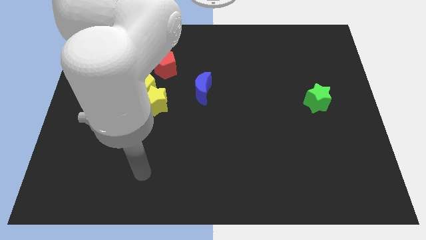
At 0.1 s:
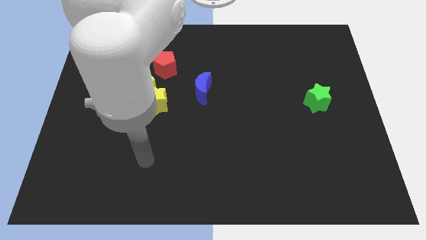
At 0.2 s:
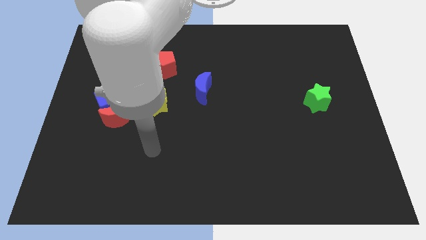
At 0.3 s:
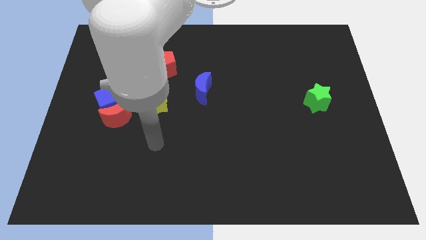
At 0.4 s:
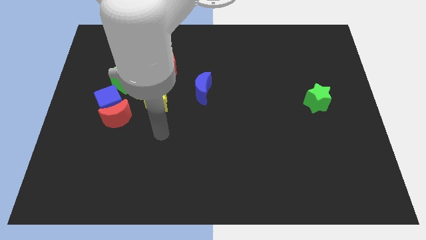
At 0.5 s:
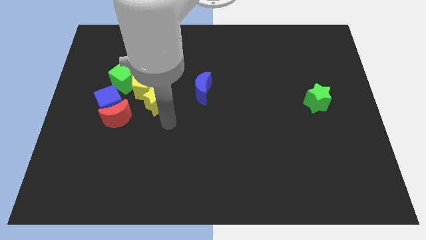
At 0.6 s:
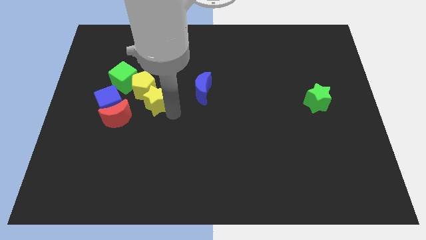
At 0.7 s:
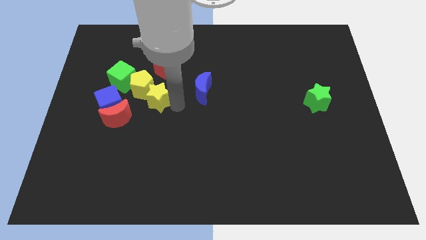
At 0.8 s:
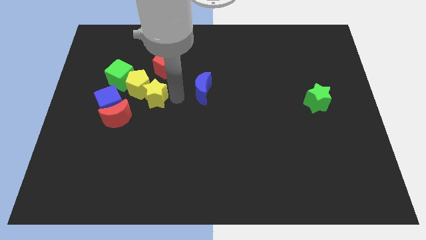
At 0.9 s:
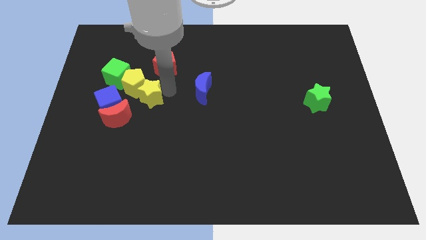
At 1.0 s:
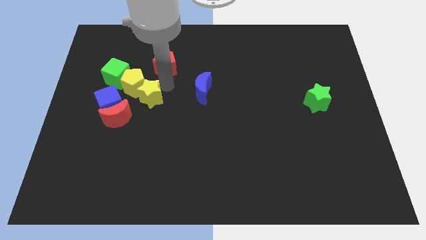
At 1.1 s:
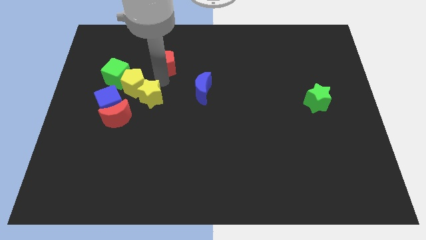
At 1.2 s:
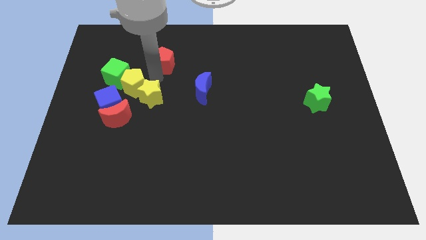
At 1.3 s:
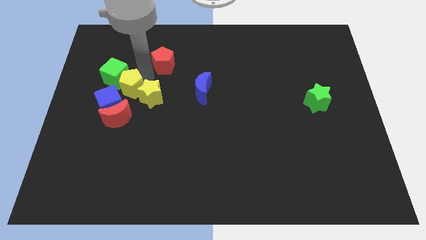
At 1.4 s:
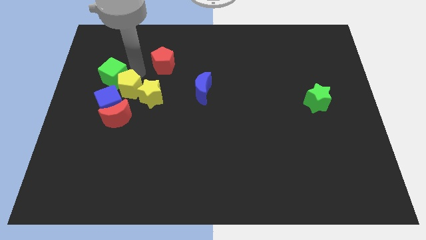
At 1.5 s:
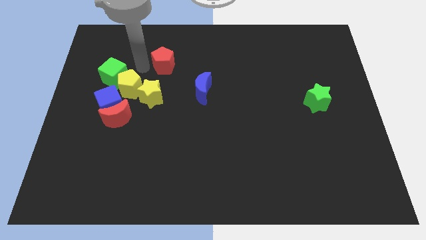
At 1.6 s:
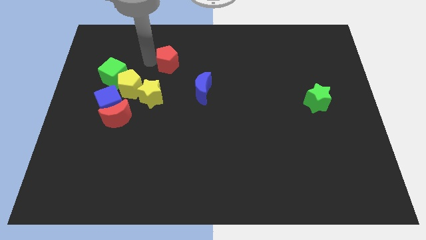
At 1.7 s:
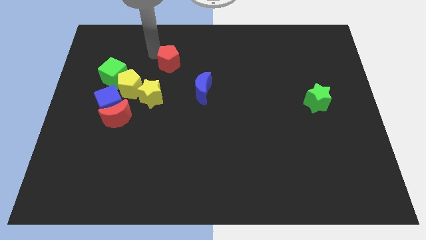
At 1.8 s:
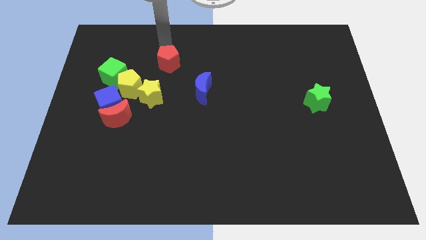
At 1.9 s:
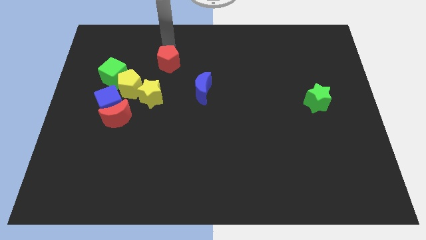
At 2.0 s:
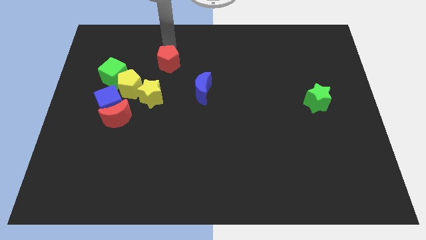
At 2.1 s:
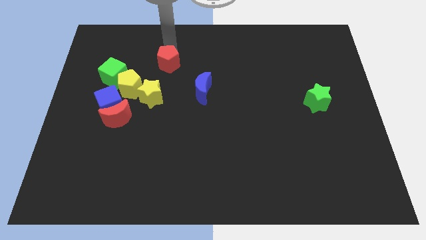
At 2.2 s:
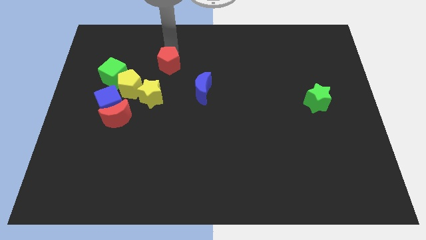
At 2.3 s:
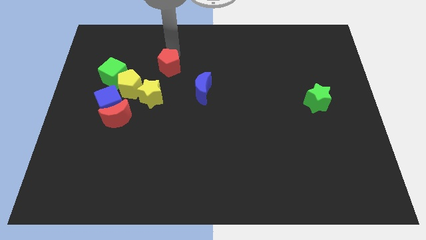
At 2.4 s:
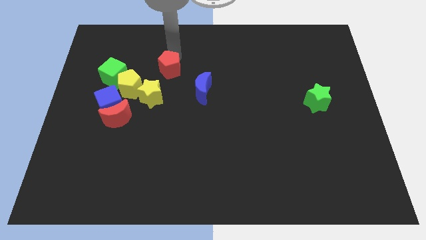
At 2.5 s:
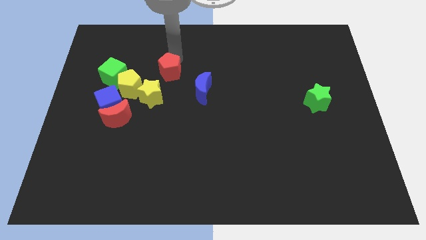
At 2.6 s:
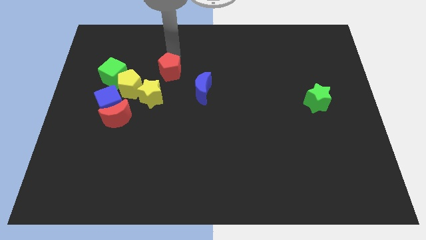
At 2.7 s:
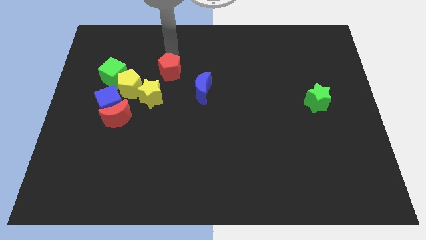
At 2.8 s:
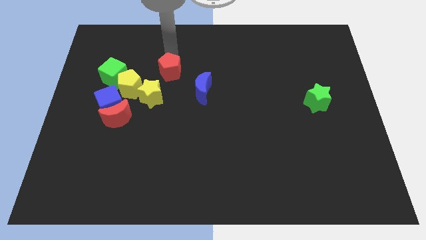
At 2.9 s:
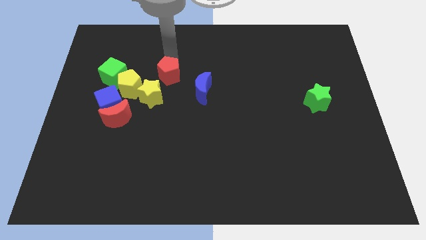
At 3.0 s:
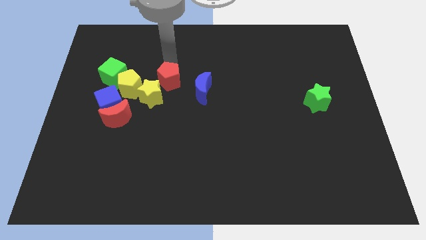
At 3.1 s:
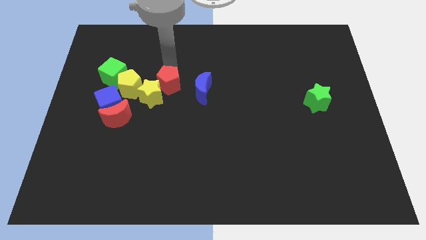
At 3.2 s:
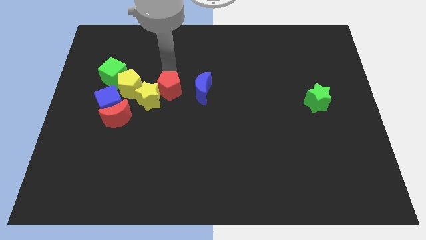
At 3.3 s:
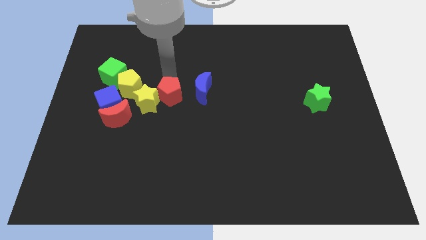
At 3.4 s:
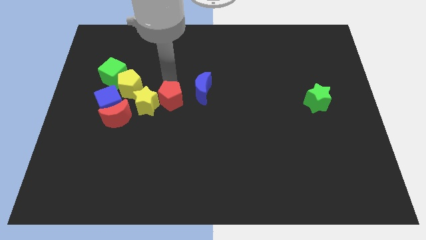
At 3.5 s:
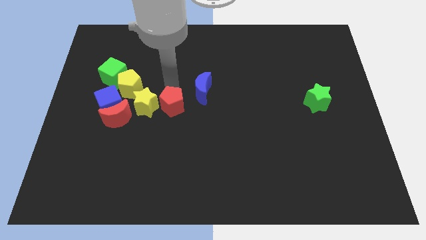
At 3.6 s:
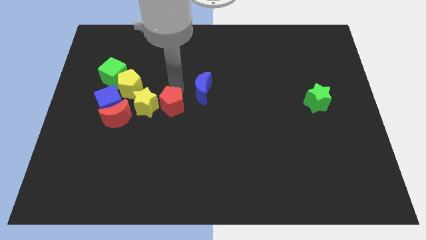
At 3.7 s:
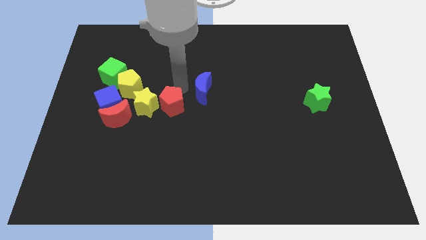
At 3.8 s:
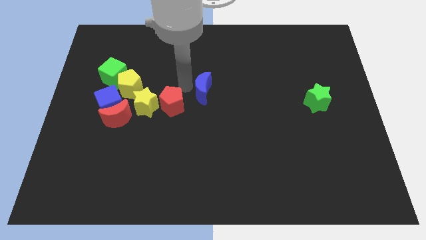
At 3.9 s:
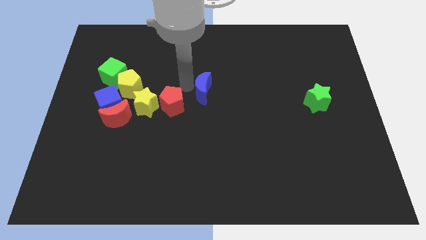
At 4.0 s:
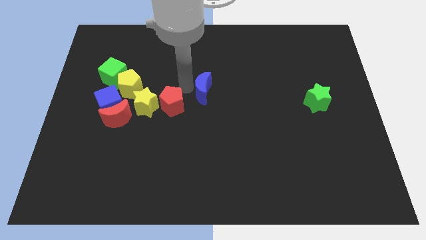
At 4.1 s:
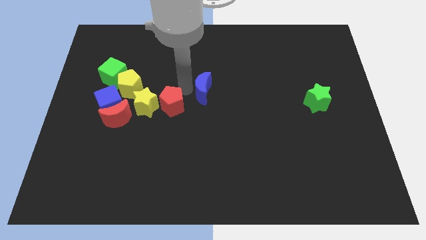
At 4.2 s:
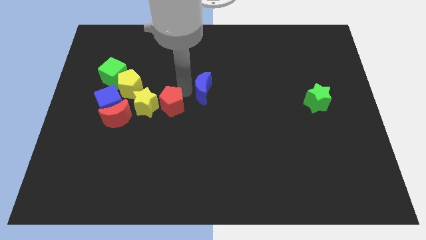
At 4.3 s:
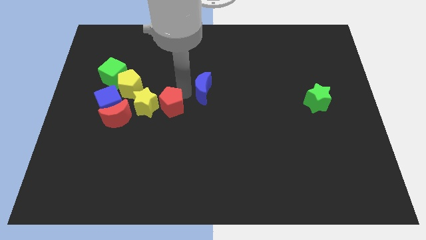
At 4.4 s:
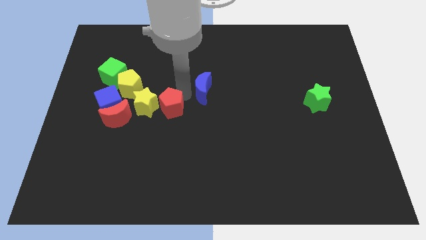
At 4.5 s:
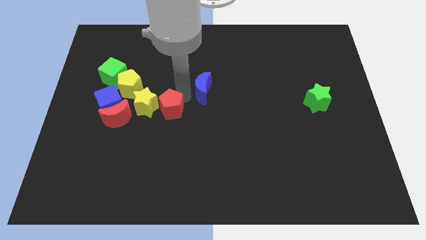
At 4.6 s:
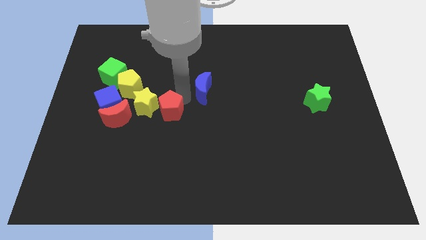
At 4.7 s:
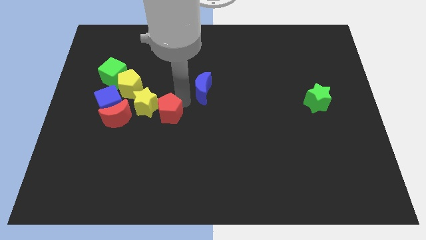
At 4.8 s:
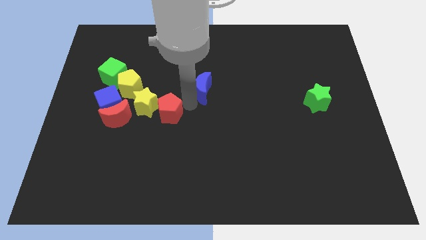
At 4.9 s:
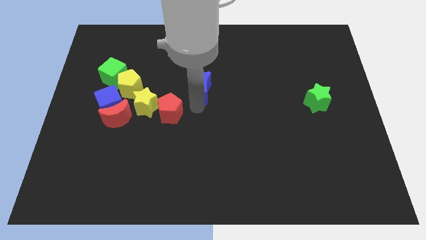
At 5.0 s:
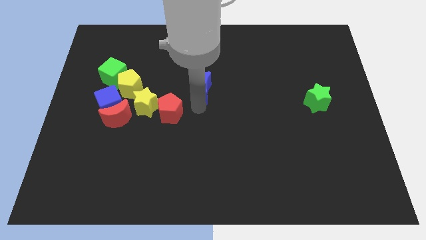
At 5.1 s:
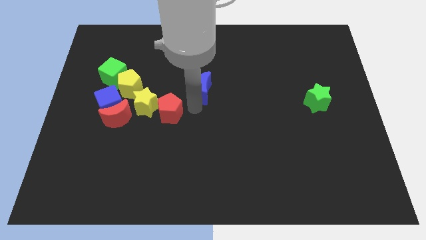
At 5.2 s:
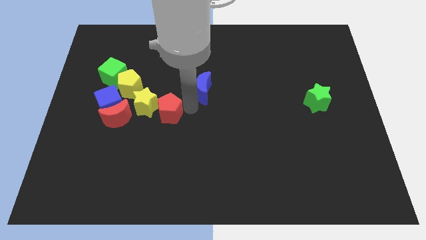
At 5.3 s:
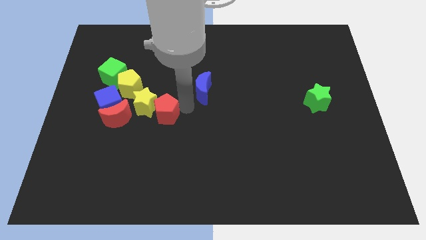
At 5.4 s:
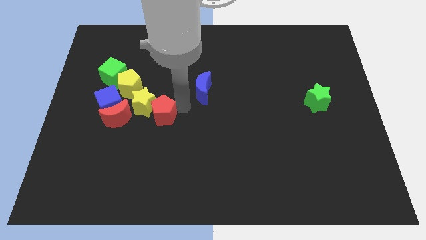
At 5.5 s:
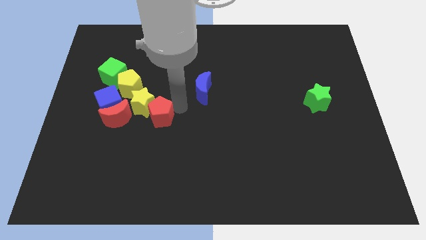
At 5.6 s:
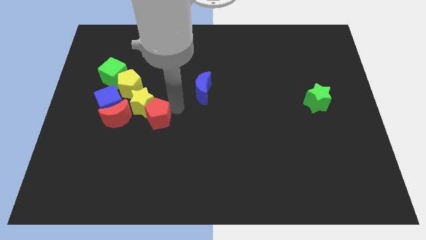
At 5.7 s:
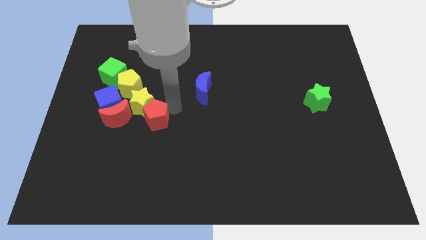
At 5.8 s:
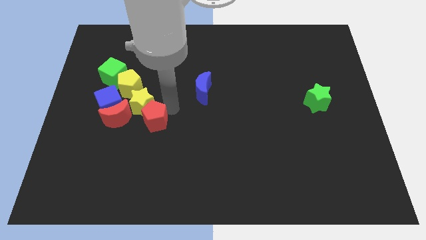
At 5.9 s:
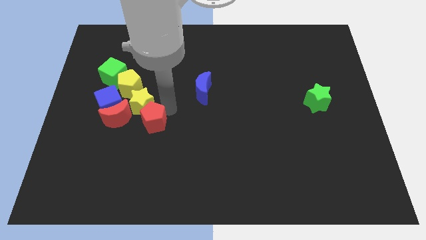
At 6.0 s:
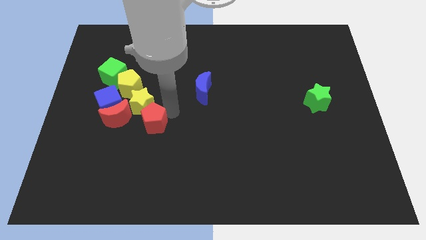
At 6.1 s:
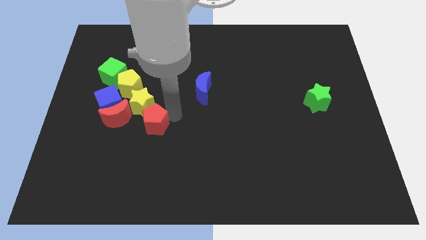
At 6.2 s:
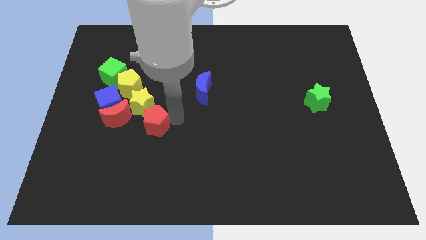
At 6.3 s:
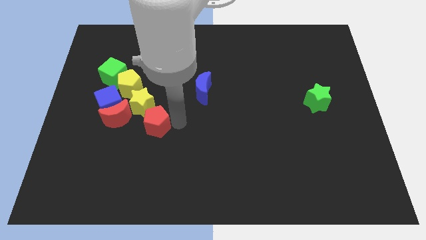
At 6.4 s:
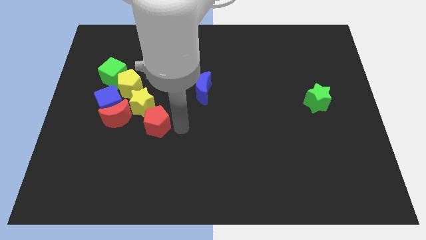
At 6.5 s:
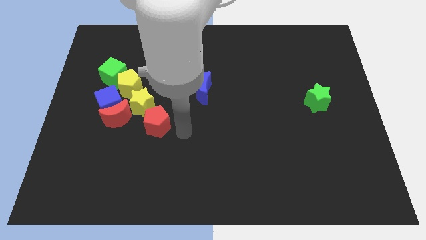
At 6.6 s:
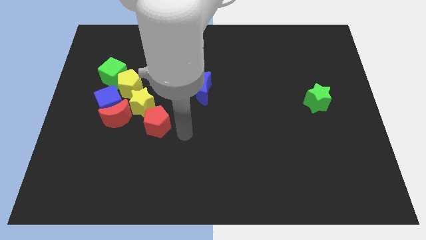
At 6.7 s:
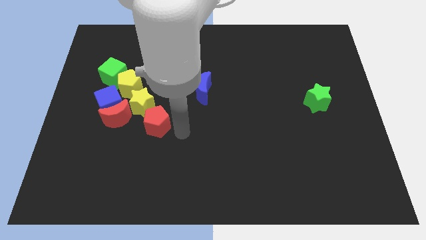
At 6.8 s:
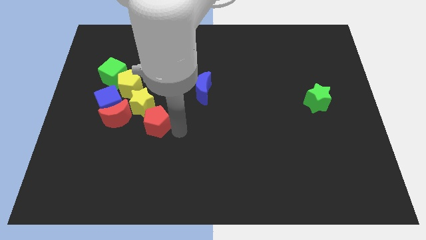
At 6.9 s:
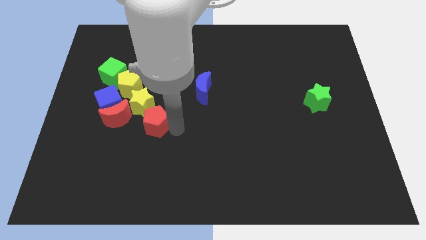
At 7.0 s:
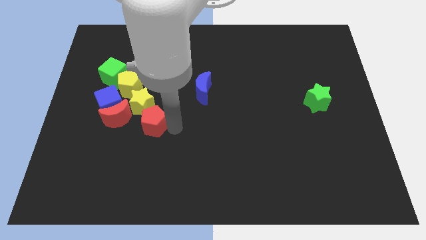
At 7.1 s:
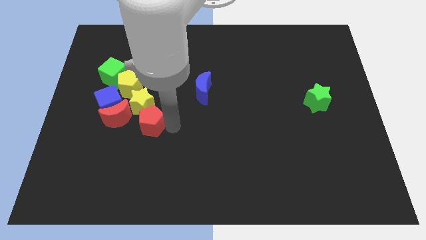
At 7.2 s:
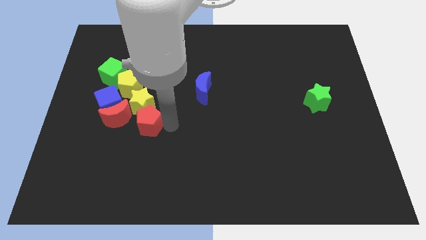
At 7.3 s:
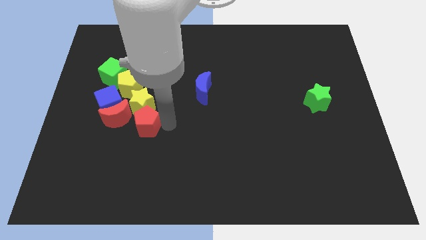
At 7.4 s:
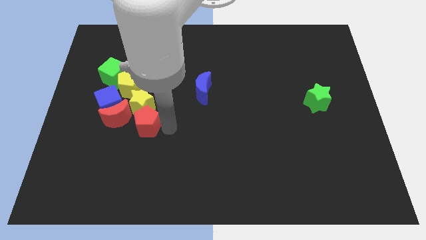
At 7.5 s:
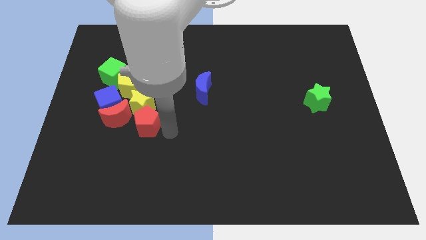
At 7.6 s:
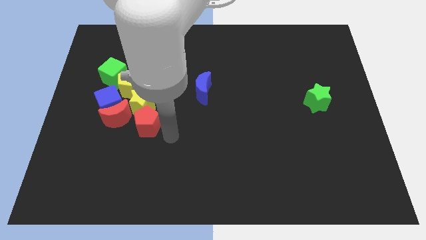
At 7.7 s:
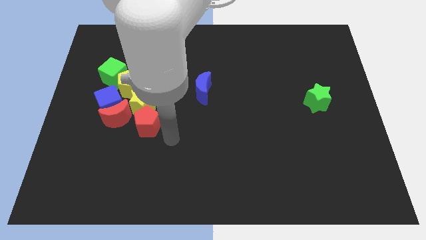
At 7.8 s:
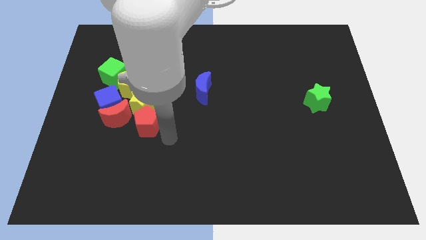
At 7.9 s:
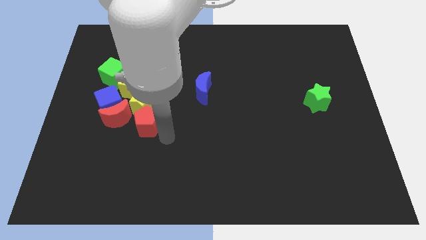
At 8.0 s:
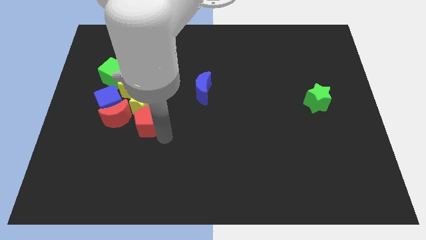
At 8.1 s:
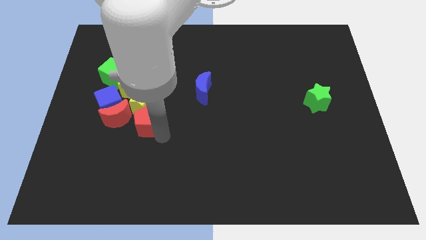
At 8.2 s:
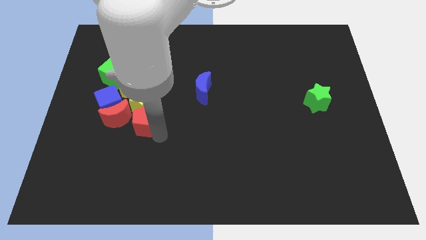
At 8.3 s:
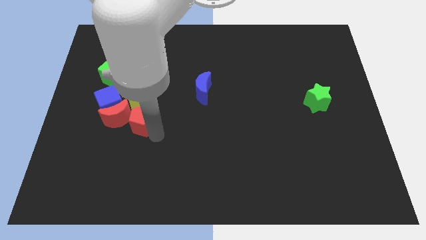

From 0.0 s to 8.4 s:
push the red pentagon towards the red moon
